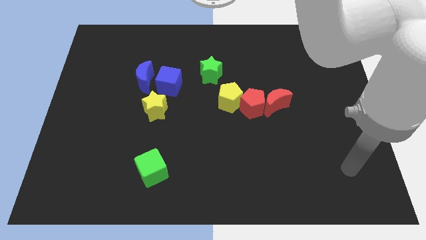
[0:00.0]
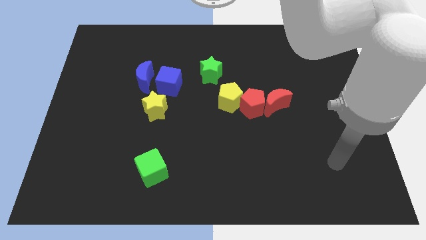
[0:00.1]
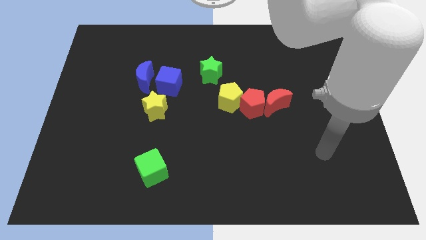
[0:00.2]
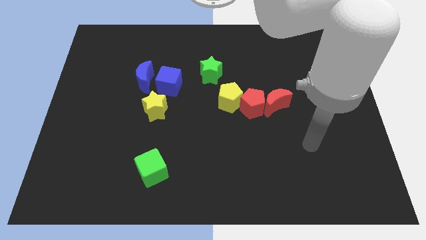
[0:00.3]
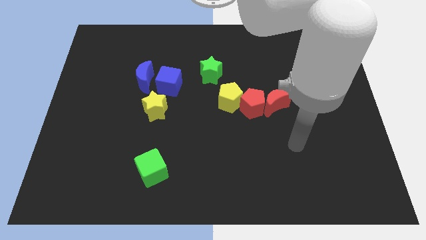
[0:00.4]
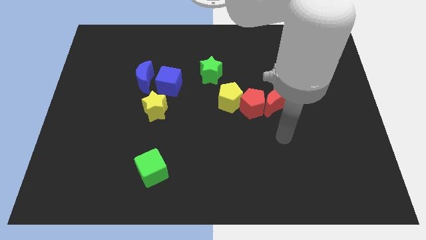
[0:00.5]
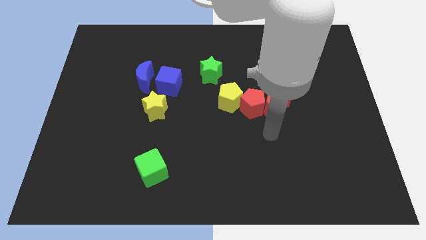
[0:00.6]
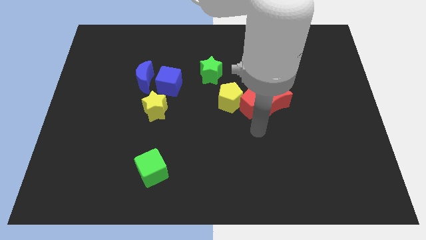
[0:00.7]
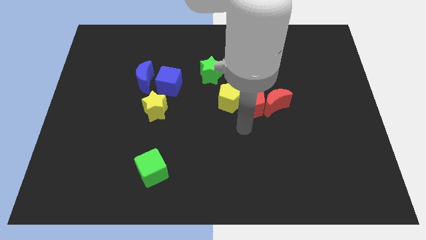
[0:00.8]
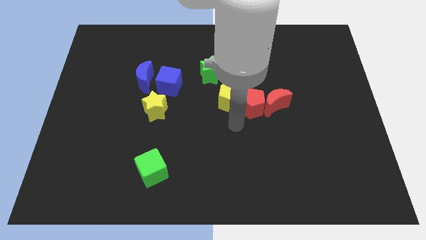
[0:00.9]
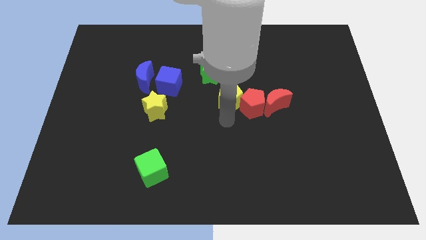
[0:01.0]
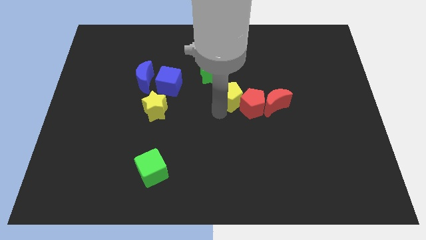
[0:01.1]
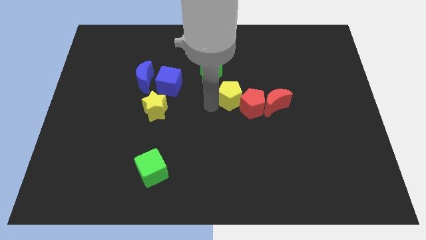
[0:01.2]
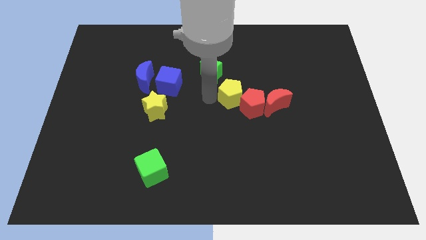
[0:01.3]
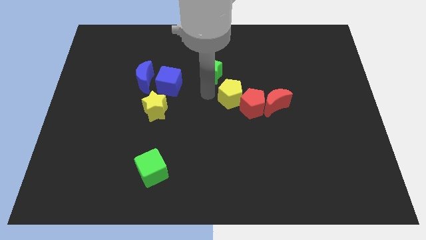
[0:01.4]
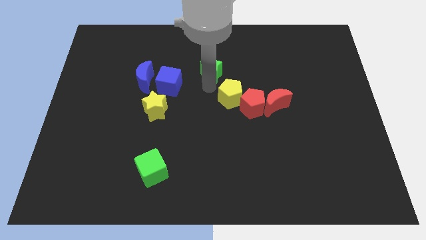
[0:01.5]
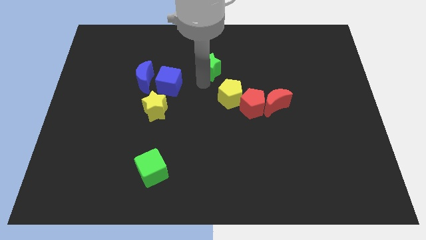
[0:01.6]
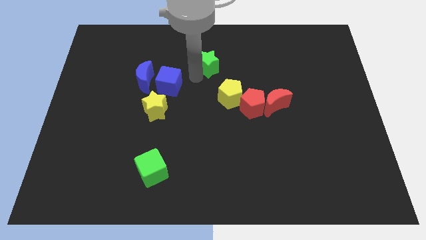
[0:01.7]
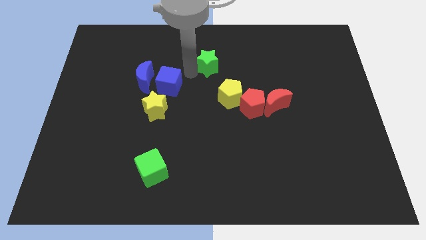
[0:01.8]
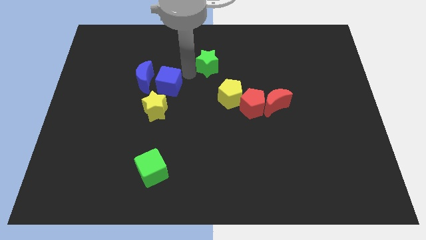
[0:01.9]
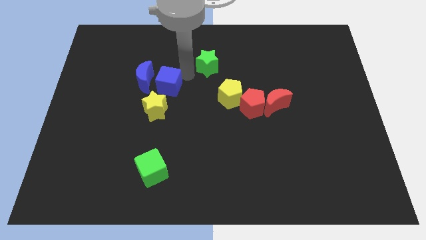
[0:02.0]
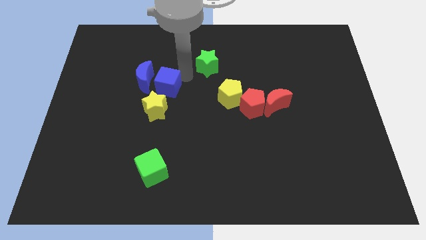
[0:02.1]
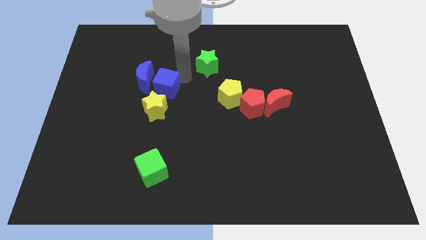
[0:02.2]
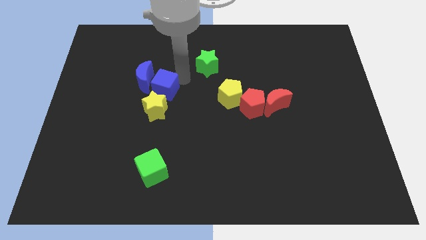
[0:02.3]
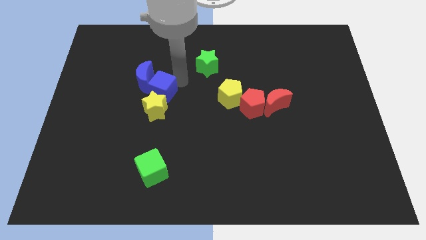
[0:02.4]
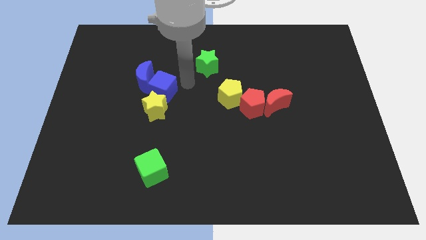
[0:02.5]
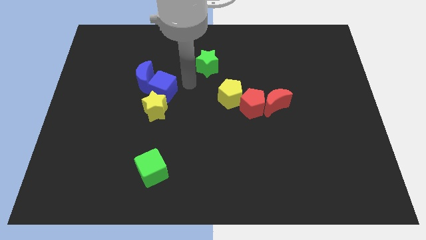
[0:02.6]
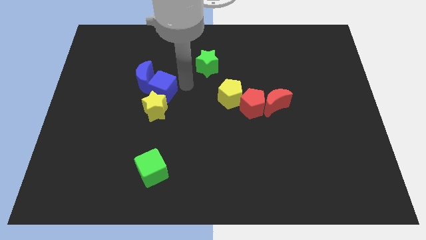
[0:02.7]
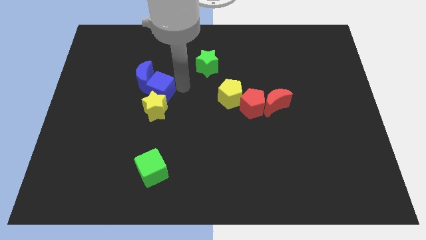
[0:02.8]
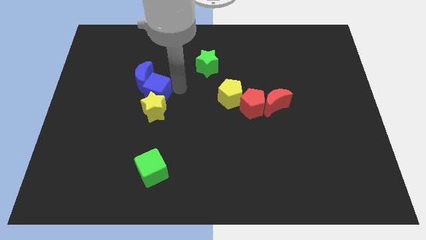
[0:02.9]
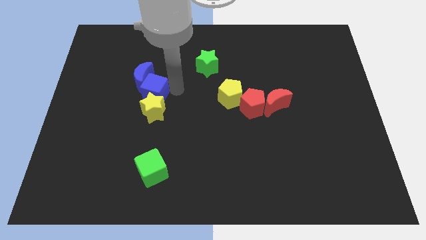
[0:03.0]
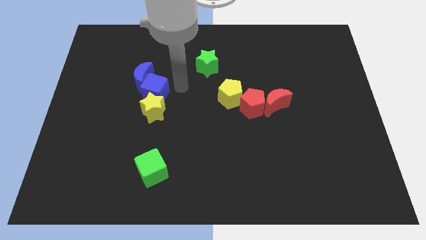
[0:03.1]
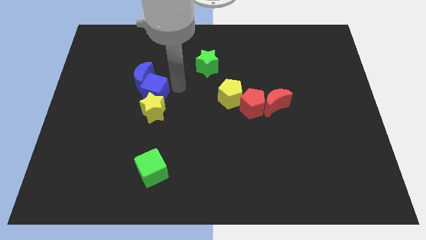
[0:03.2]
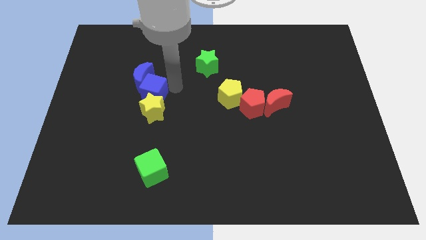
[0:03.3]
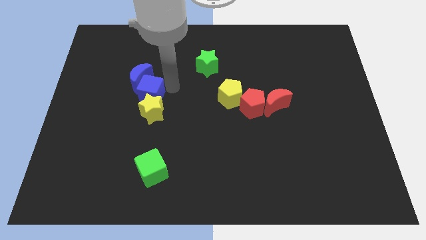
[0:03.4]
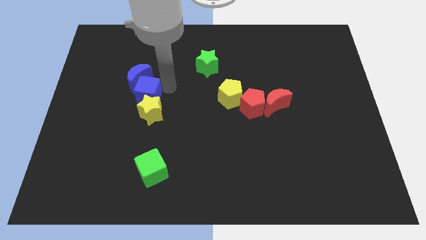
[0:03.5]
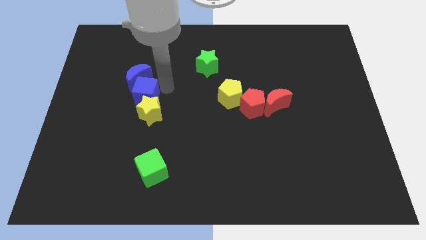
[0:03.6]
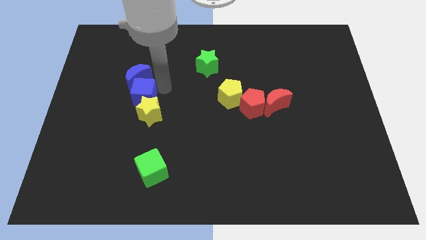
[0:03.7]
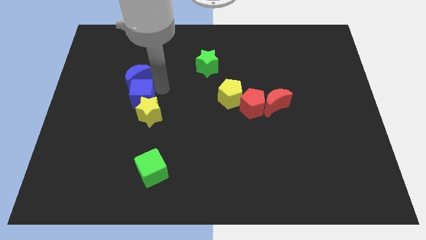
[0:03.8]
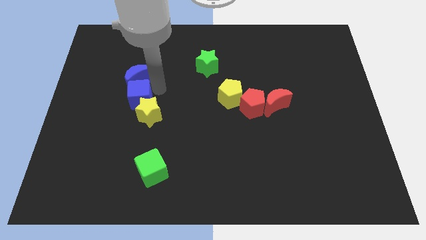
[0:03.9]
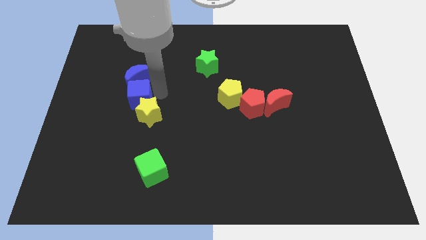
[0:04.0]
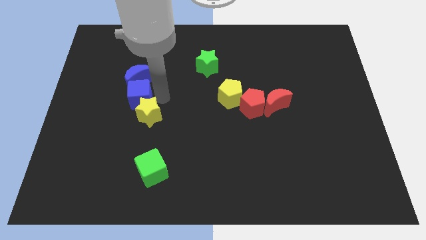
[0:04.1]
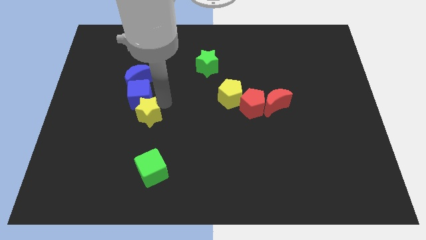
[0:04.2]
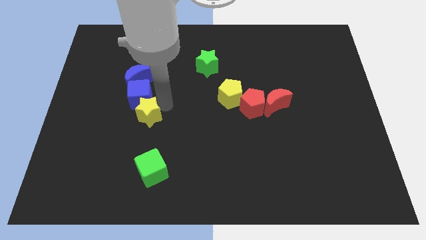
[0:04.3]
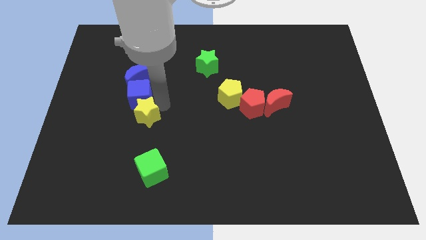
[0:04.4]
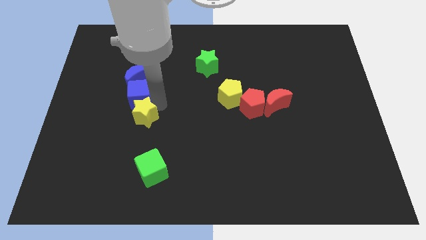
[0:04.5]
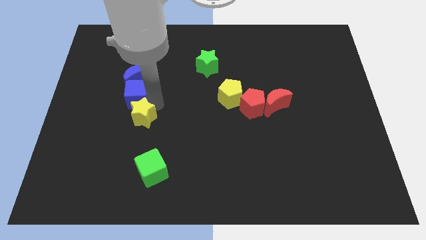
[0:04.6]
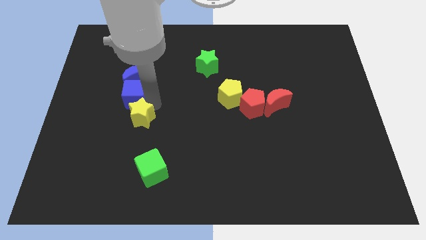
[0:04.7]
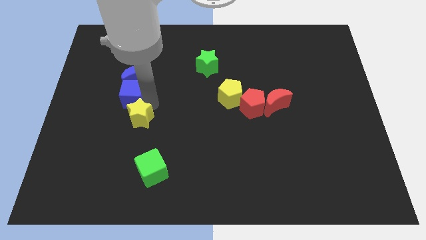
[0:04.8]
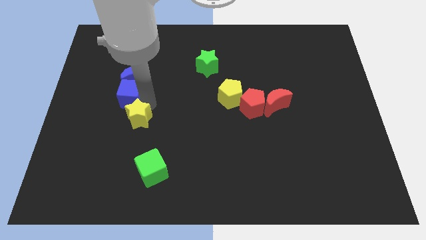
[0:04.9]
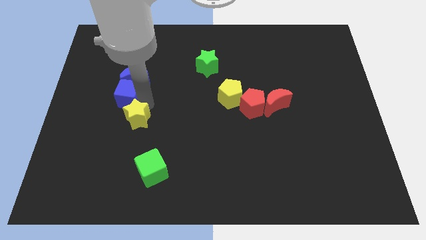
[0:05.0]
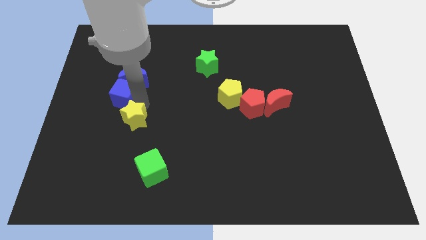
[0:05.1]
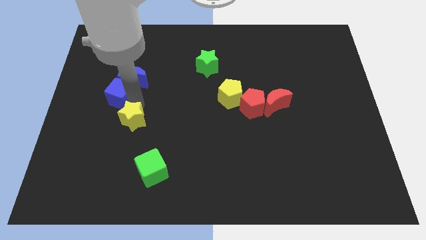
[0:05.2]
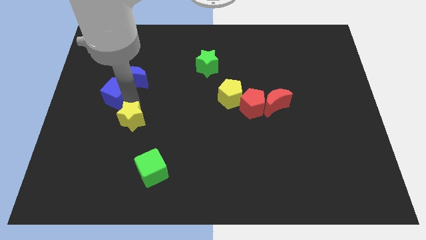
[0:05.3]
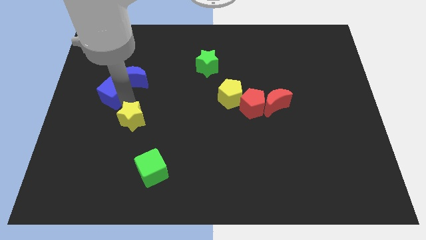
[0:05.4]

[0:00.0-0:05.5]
put the blue cube to the left of the blue moon

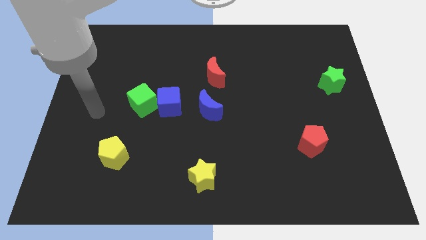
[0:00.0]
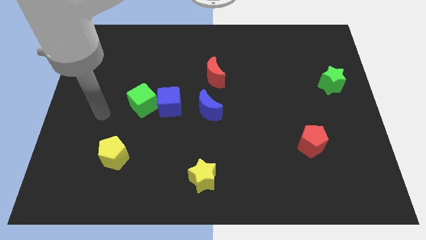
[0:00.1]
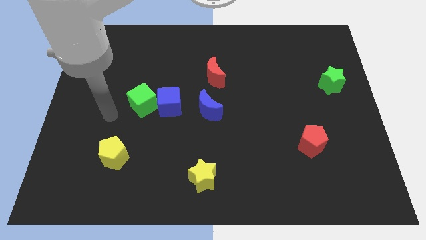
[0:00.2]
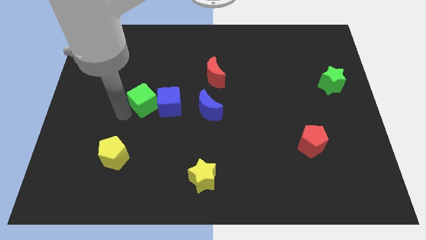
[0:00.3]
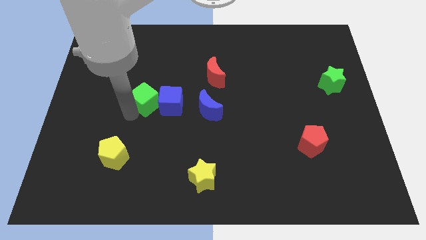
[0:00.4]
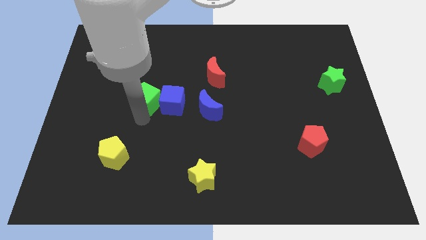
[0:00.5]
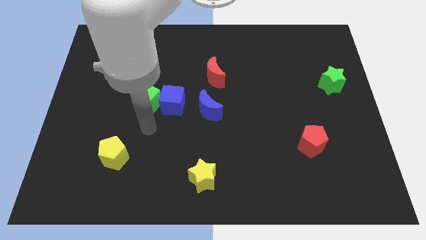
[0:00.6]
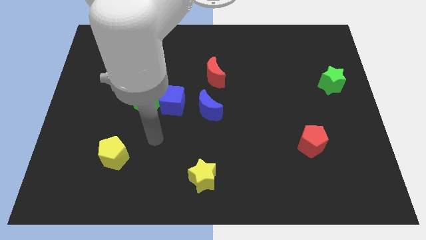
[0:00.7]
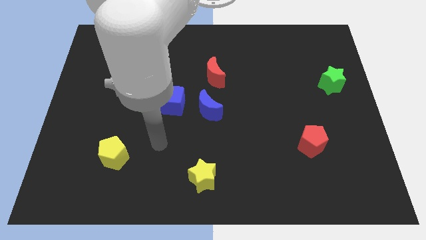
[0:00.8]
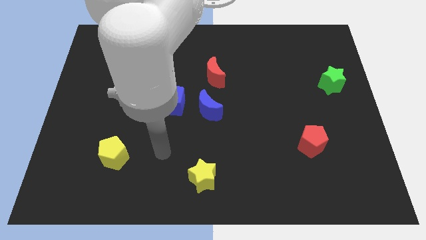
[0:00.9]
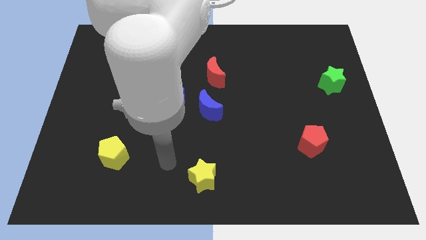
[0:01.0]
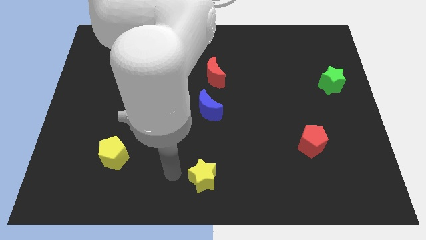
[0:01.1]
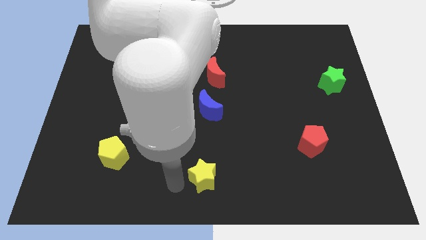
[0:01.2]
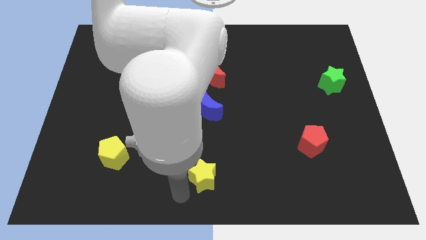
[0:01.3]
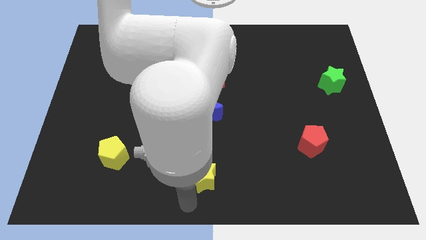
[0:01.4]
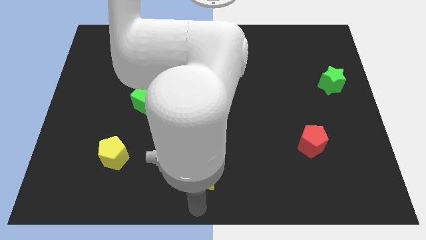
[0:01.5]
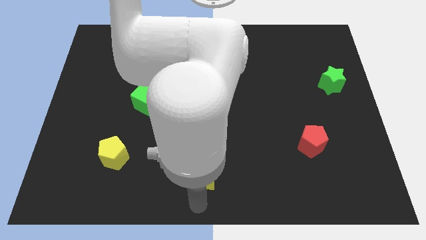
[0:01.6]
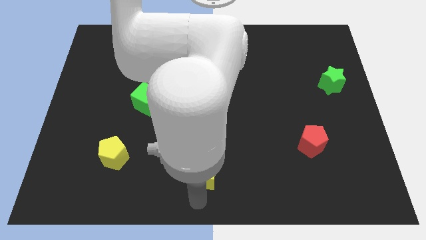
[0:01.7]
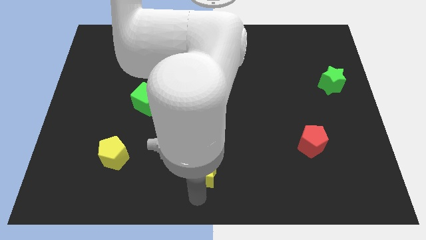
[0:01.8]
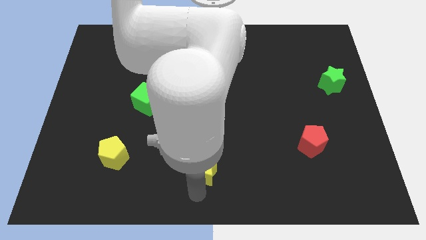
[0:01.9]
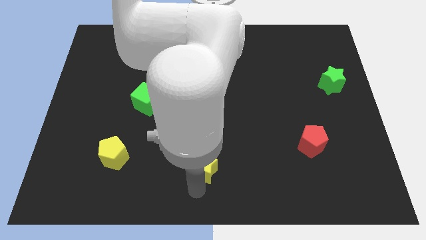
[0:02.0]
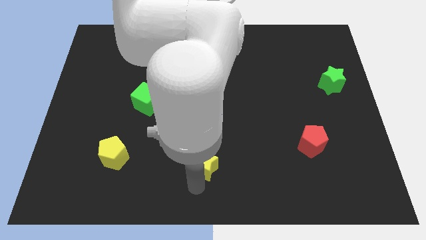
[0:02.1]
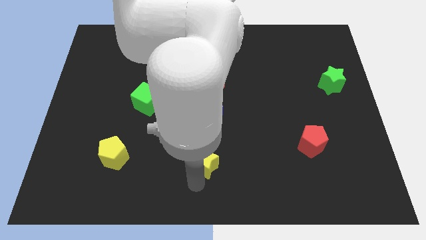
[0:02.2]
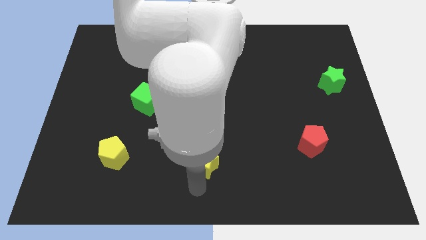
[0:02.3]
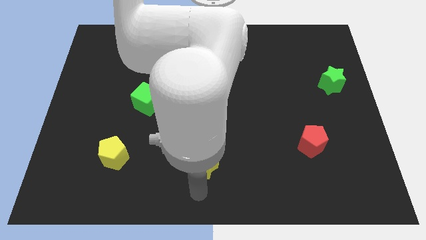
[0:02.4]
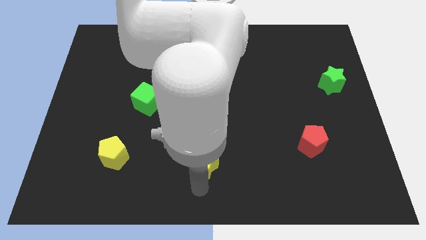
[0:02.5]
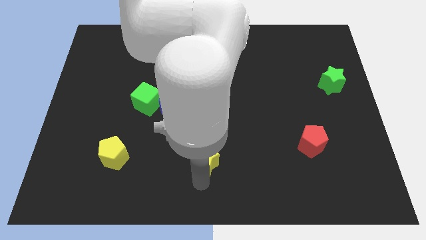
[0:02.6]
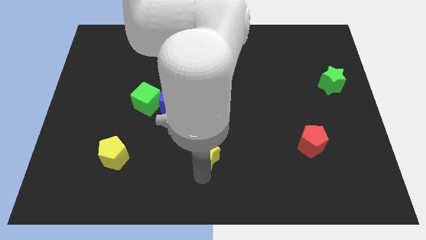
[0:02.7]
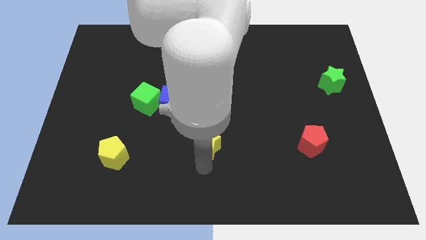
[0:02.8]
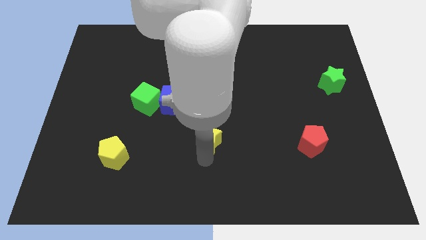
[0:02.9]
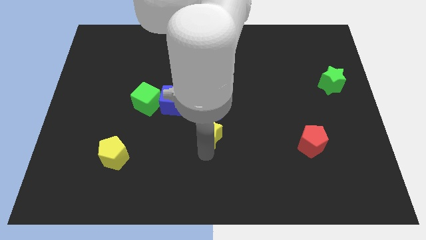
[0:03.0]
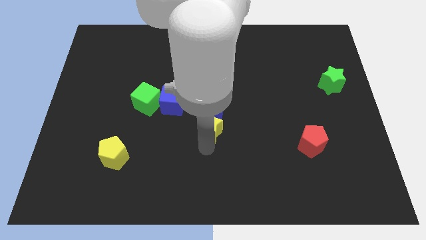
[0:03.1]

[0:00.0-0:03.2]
put the yellow star to the bottom of the red moon
